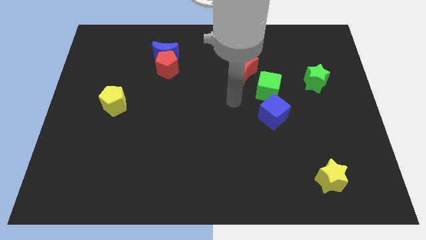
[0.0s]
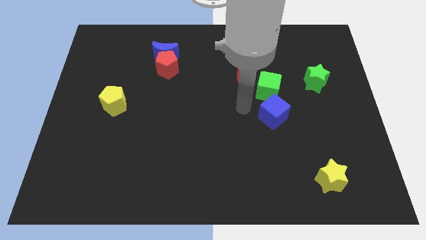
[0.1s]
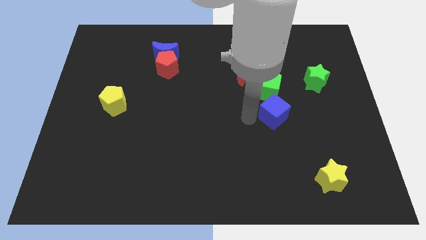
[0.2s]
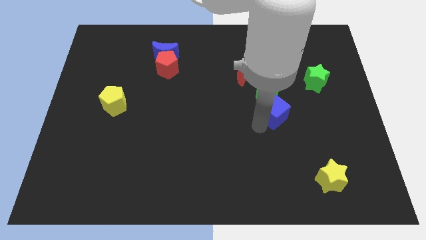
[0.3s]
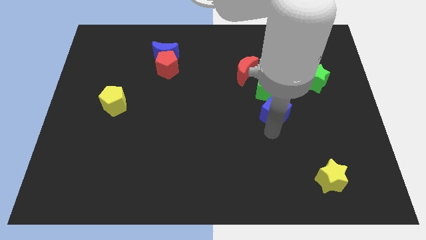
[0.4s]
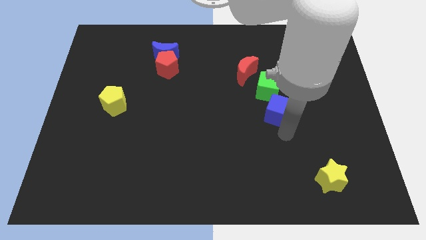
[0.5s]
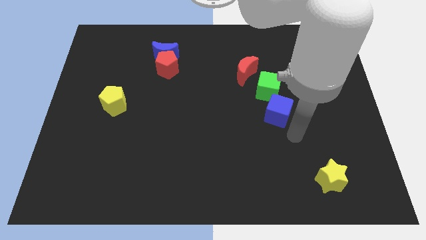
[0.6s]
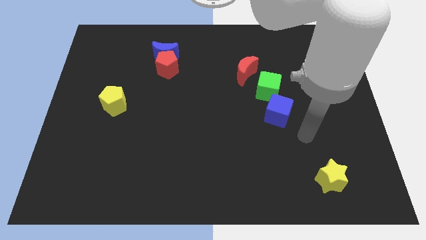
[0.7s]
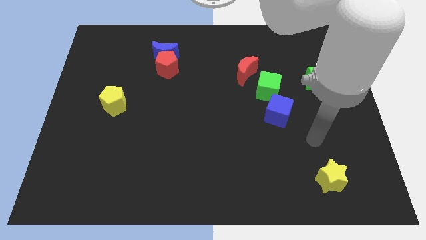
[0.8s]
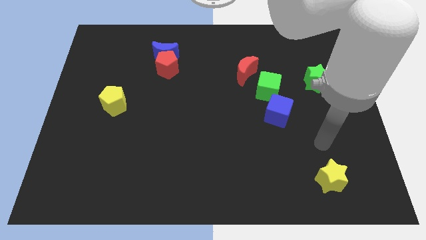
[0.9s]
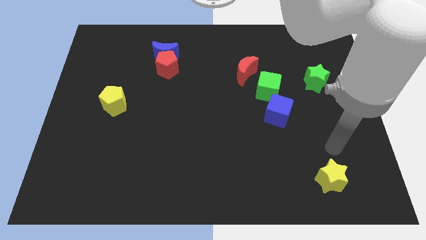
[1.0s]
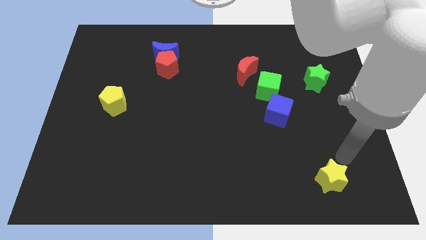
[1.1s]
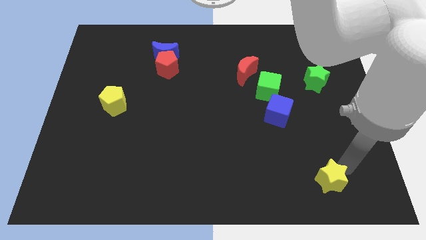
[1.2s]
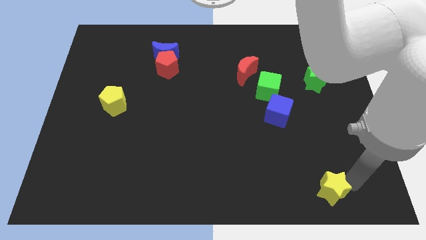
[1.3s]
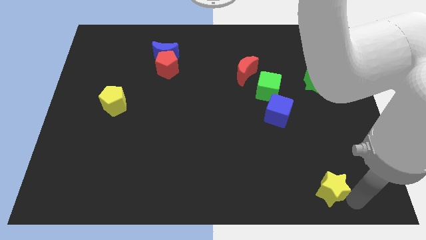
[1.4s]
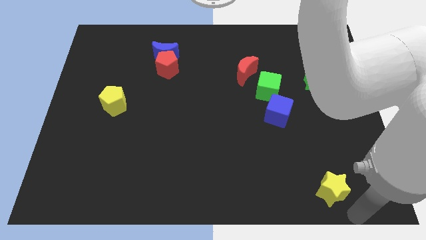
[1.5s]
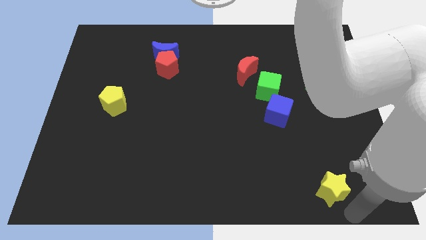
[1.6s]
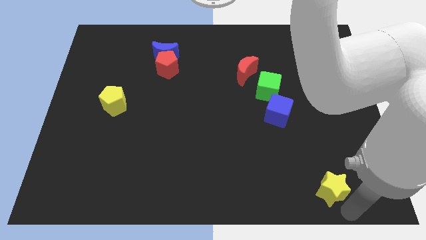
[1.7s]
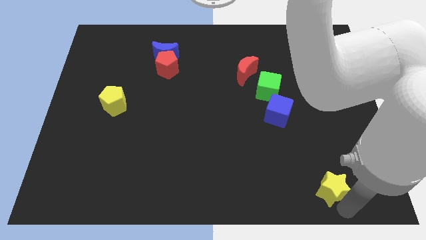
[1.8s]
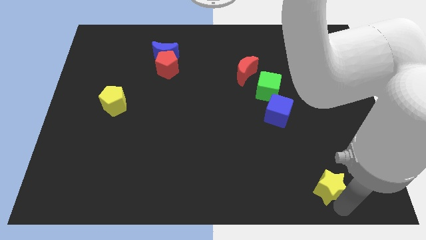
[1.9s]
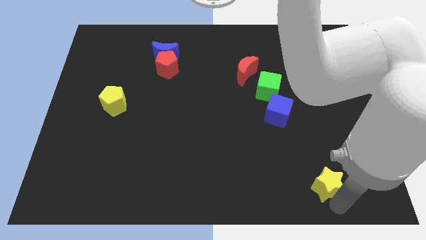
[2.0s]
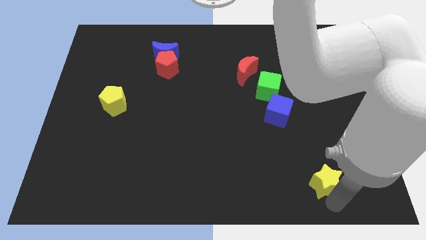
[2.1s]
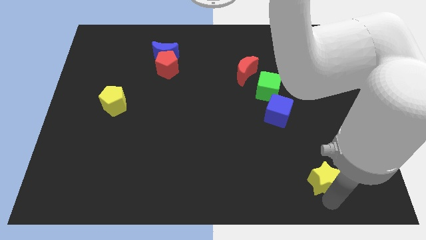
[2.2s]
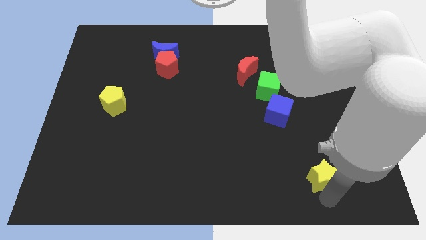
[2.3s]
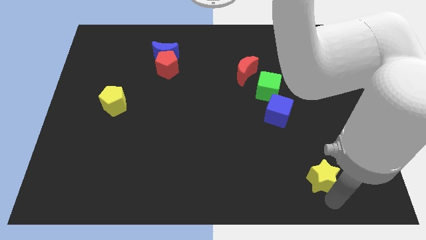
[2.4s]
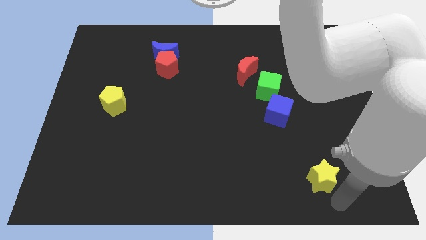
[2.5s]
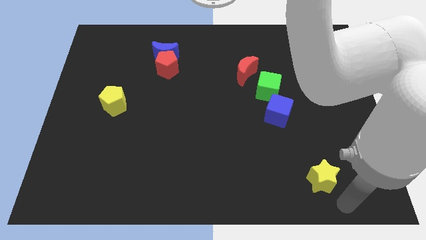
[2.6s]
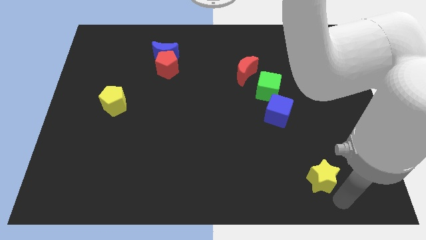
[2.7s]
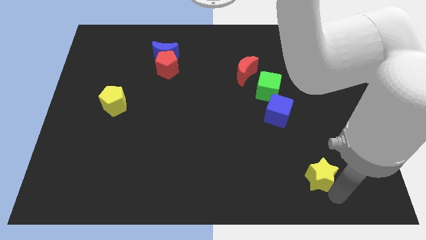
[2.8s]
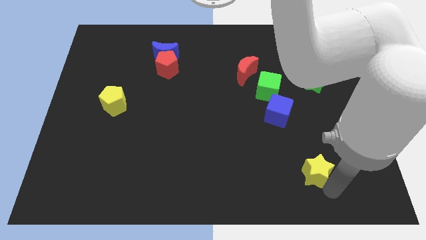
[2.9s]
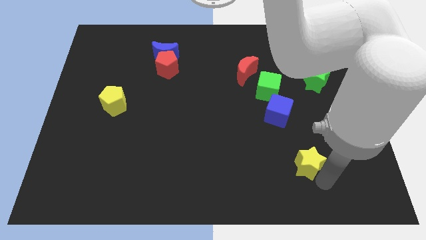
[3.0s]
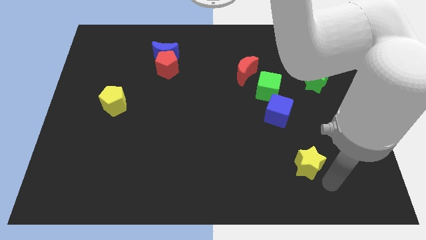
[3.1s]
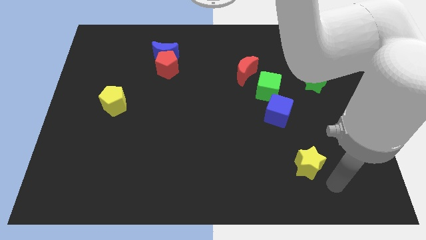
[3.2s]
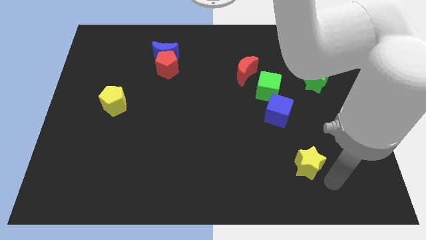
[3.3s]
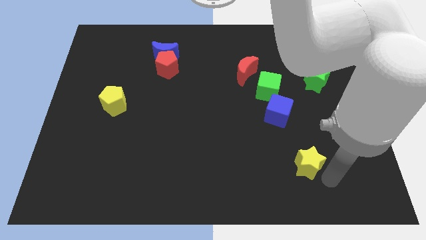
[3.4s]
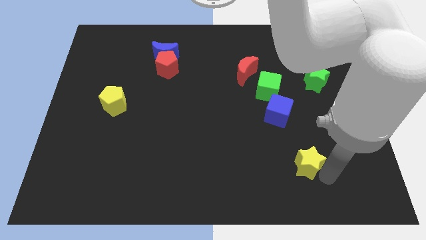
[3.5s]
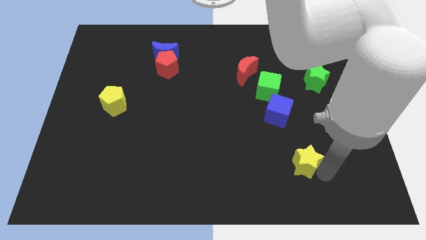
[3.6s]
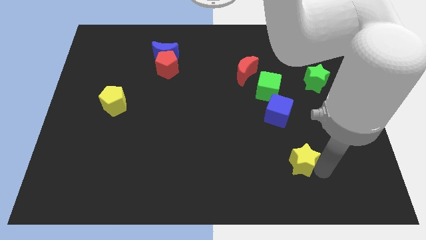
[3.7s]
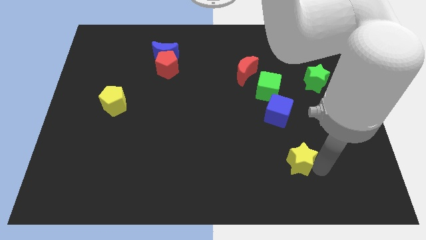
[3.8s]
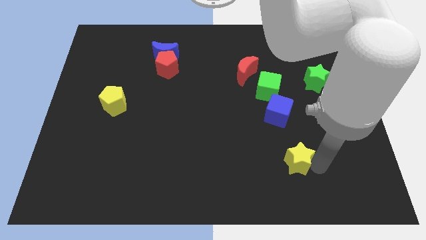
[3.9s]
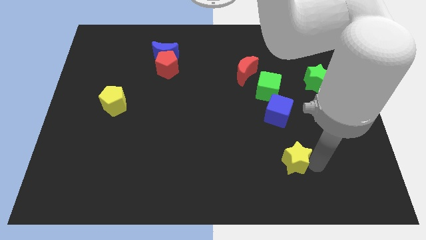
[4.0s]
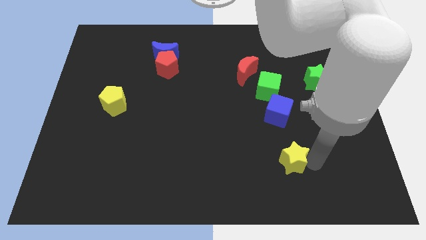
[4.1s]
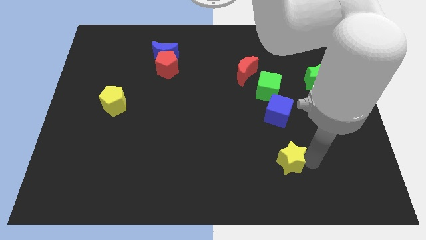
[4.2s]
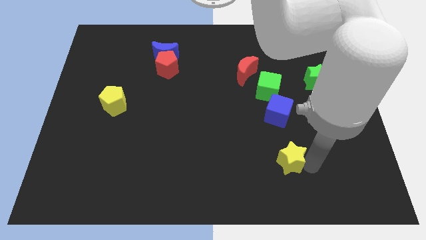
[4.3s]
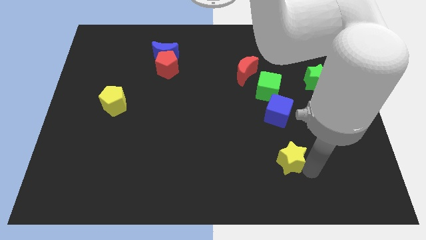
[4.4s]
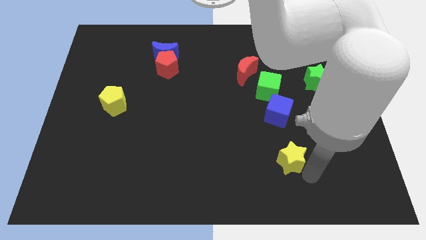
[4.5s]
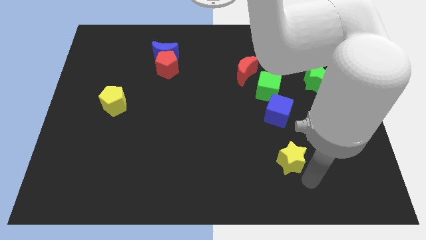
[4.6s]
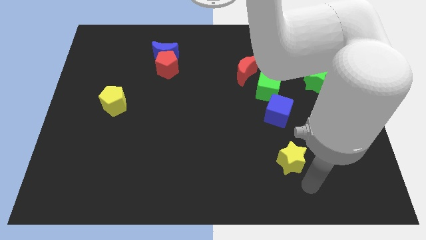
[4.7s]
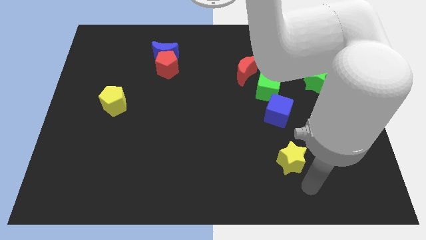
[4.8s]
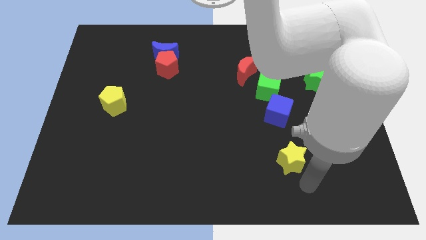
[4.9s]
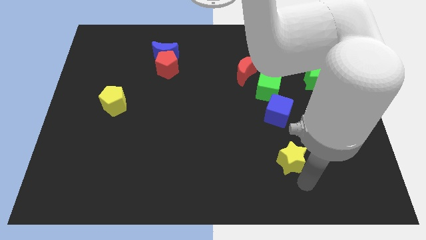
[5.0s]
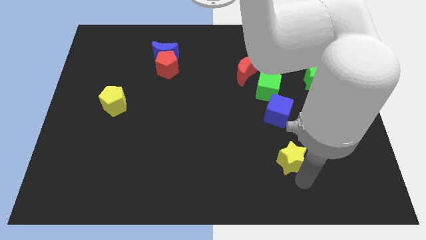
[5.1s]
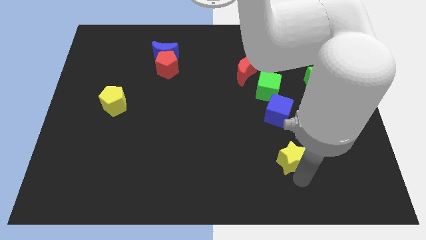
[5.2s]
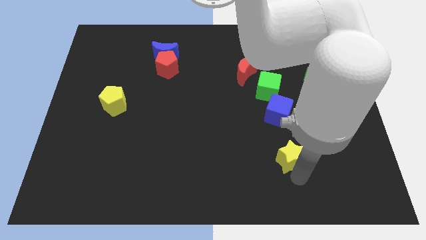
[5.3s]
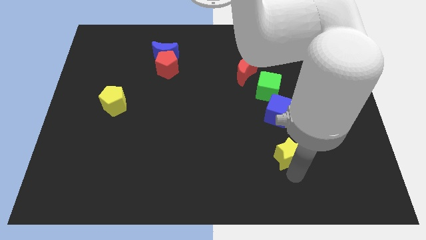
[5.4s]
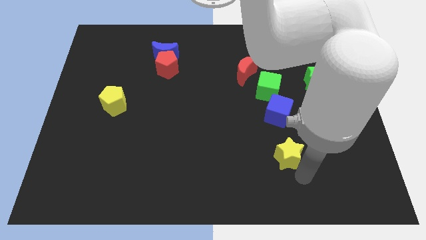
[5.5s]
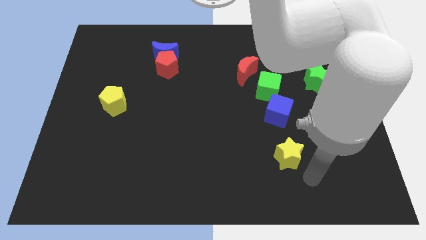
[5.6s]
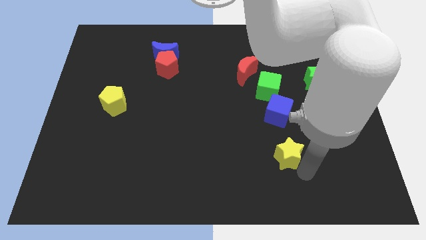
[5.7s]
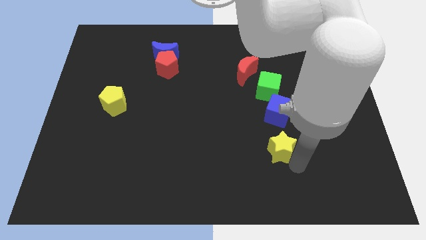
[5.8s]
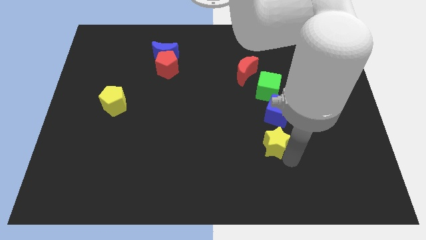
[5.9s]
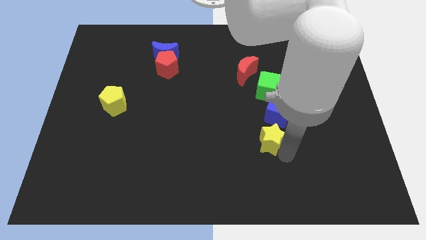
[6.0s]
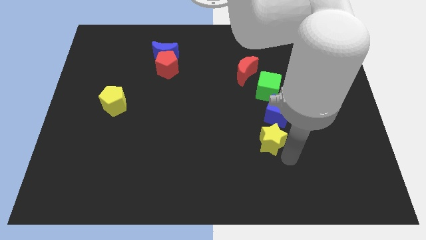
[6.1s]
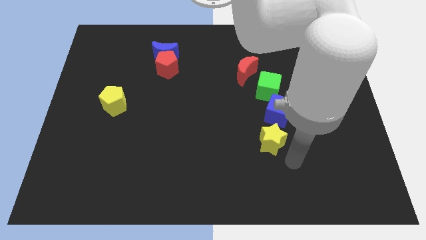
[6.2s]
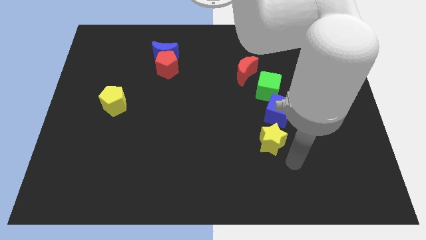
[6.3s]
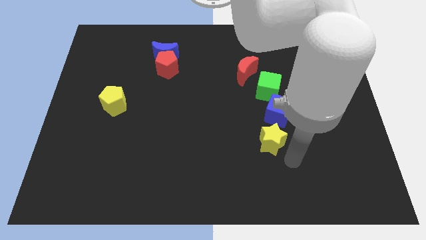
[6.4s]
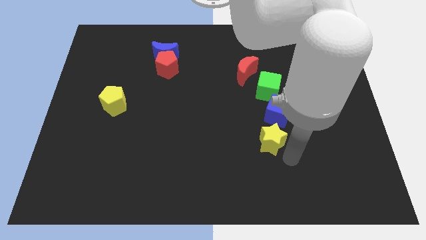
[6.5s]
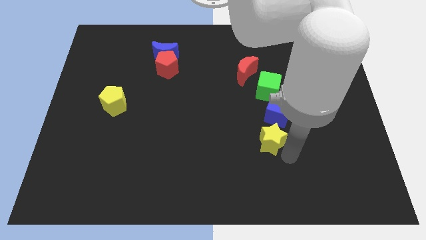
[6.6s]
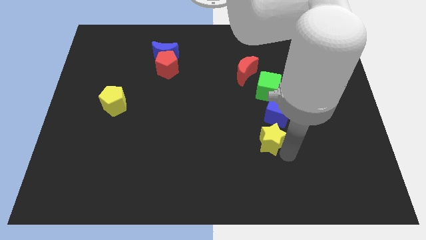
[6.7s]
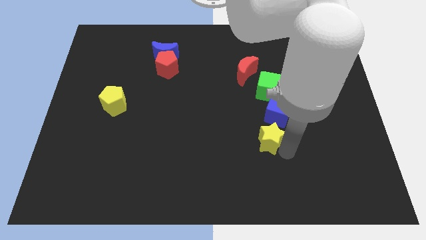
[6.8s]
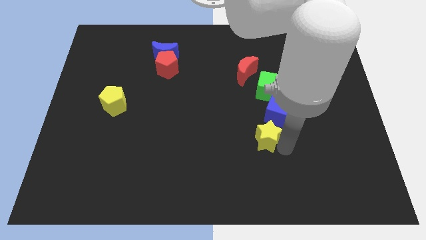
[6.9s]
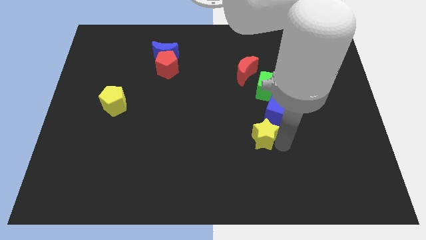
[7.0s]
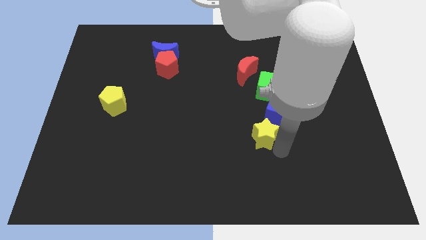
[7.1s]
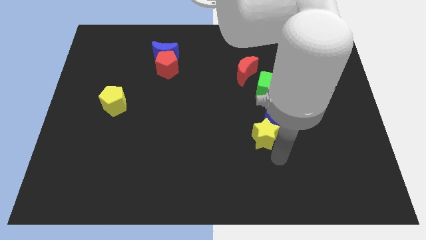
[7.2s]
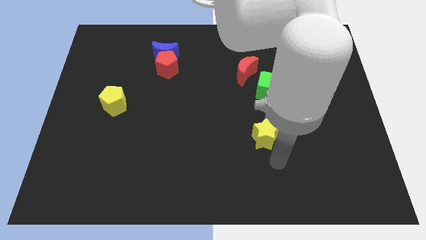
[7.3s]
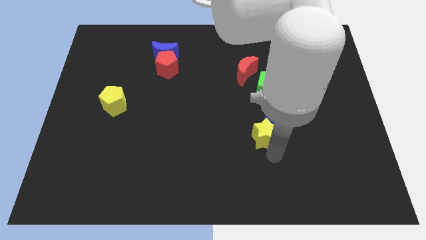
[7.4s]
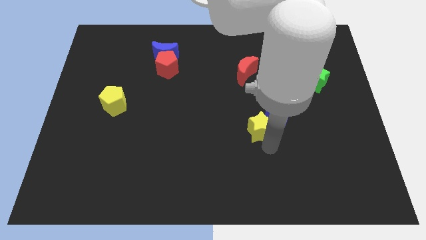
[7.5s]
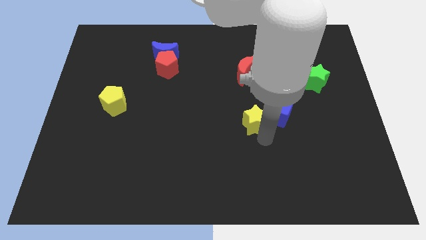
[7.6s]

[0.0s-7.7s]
move the yellow star to the bottom of the red moon

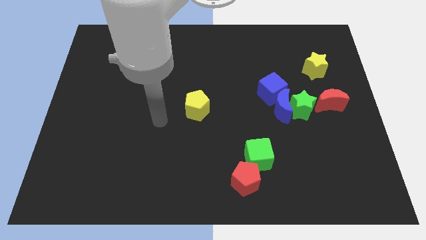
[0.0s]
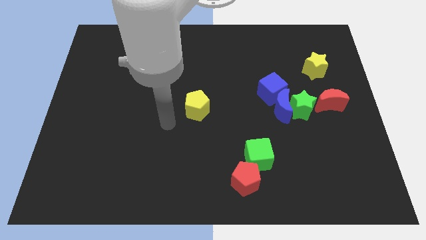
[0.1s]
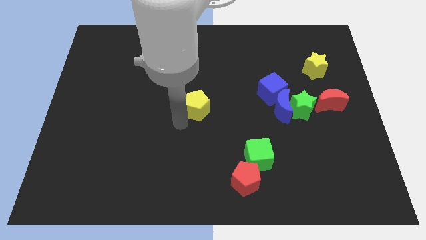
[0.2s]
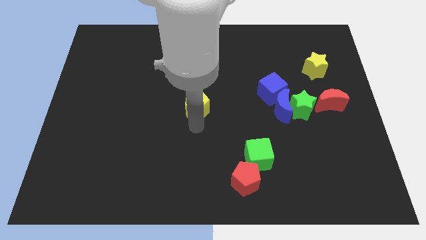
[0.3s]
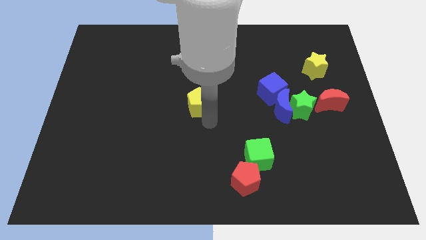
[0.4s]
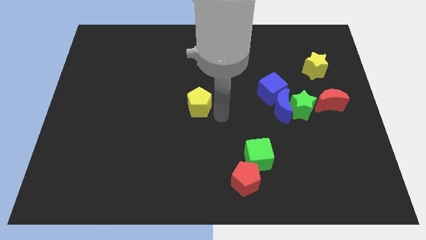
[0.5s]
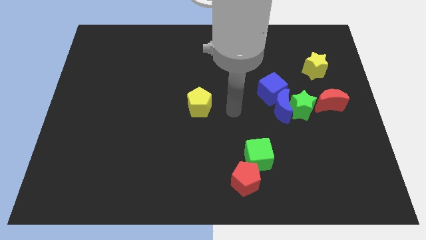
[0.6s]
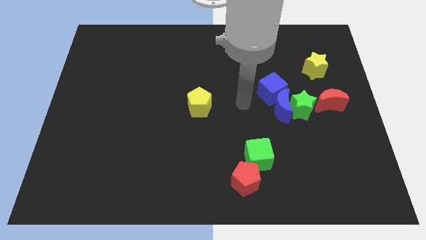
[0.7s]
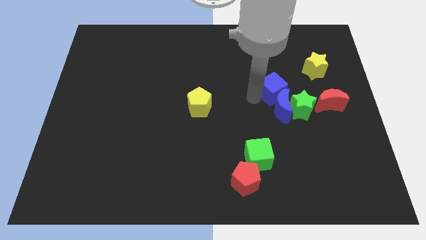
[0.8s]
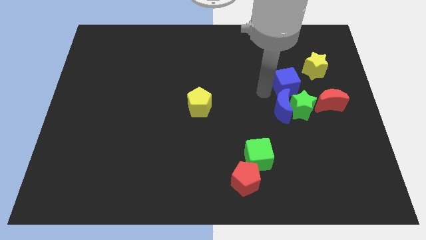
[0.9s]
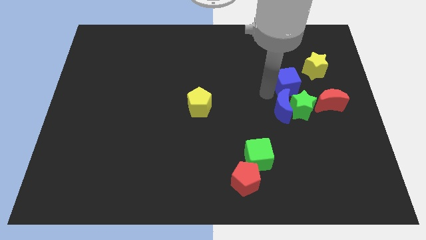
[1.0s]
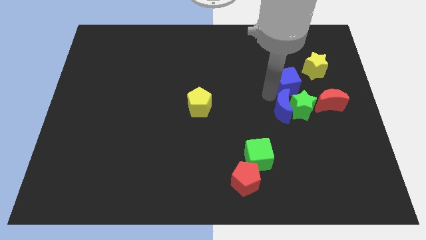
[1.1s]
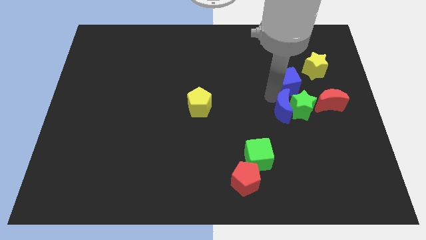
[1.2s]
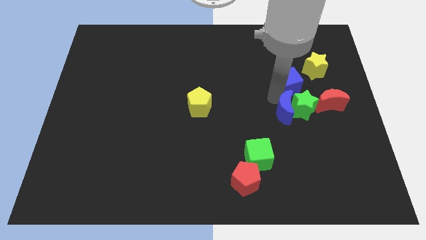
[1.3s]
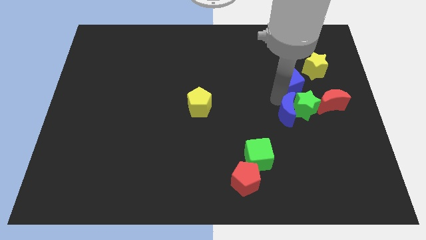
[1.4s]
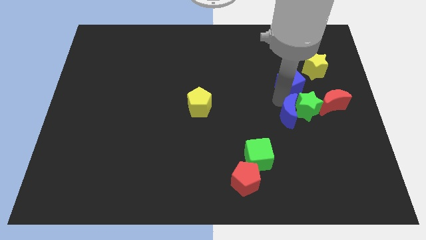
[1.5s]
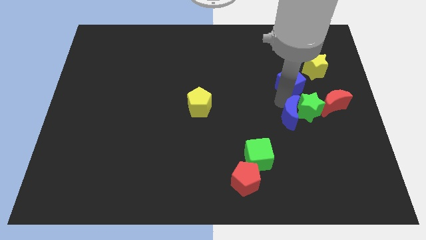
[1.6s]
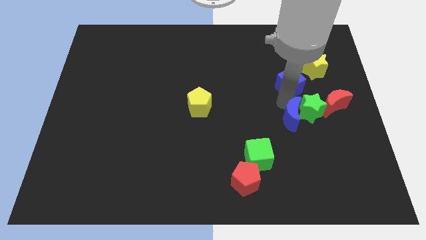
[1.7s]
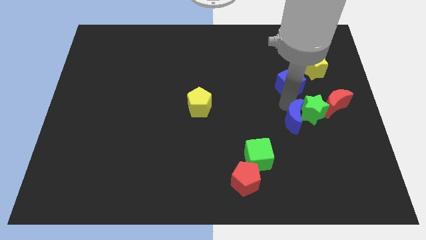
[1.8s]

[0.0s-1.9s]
move the blue moon diagonally down and to the left of the red moon
